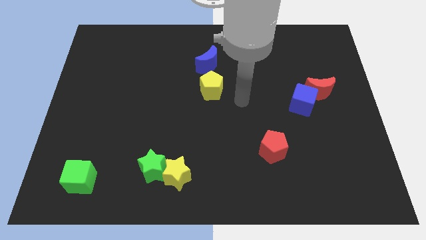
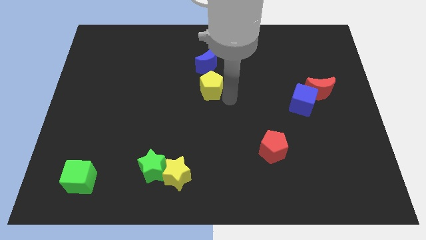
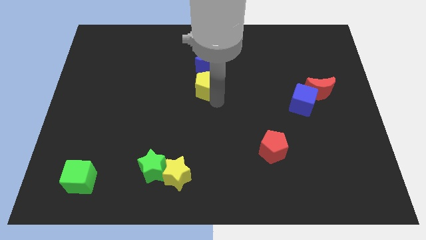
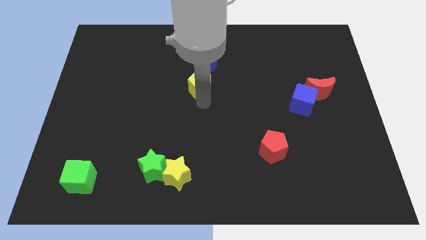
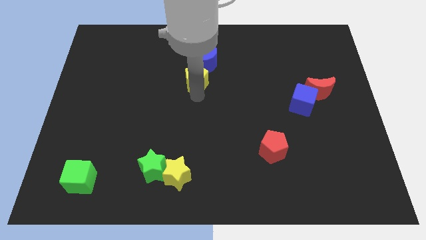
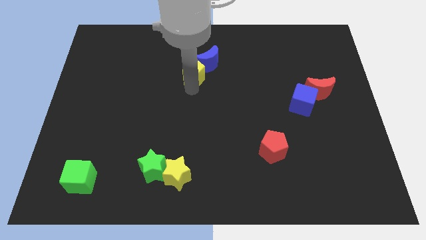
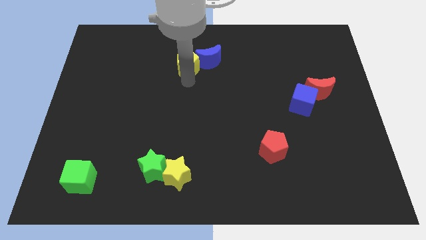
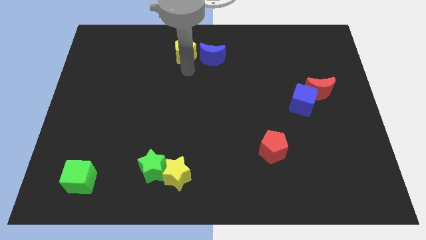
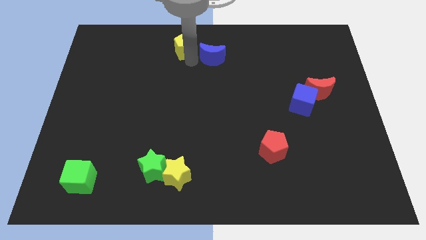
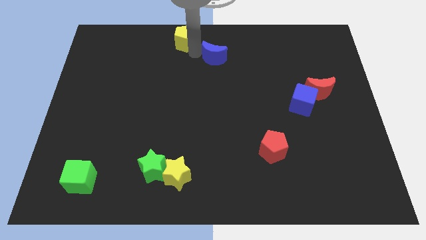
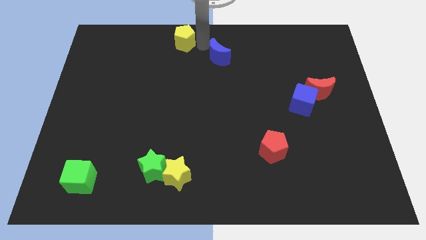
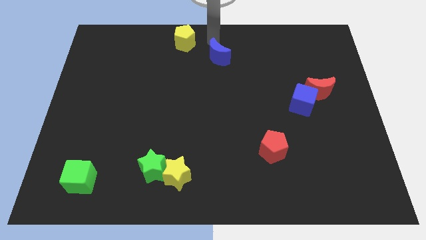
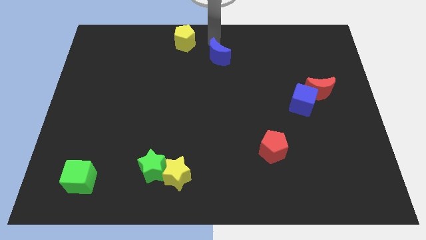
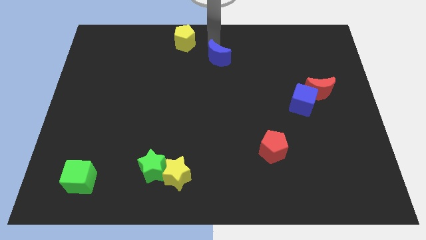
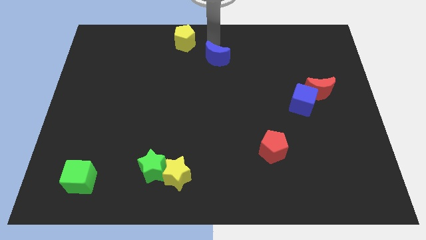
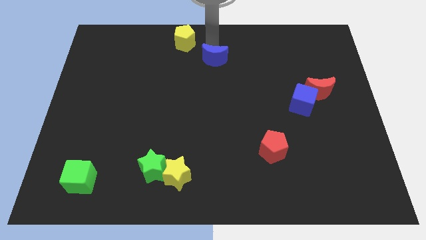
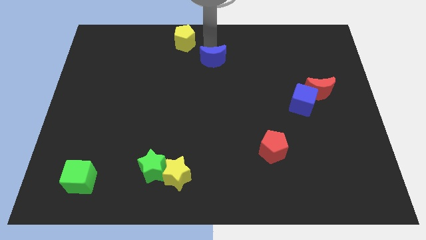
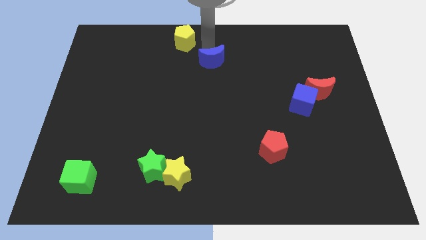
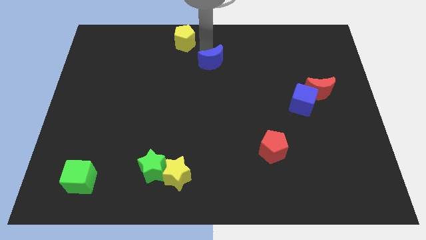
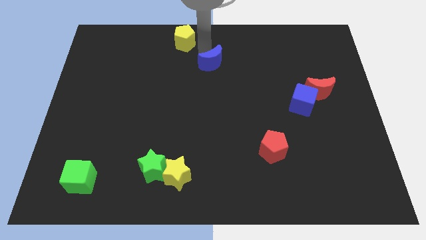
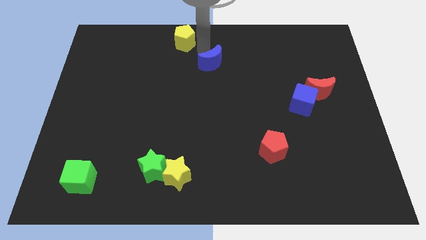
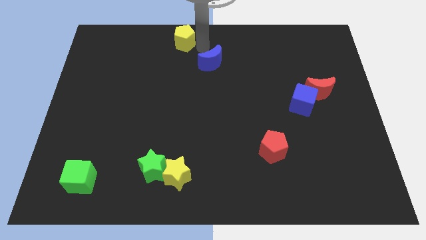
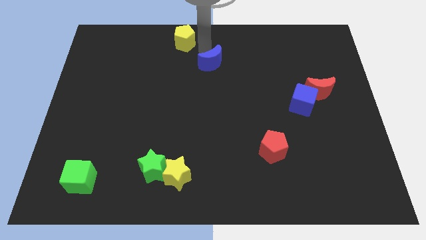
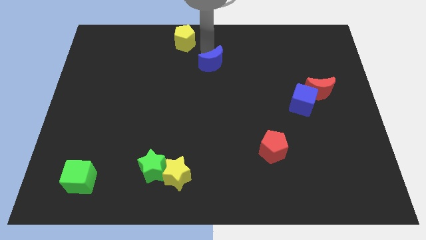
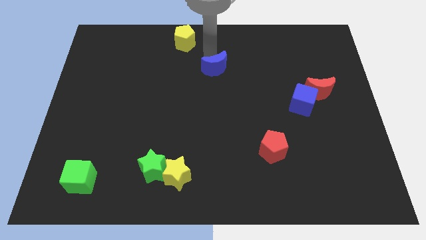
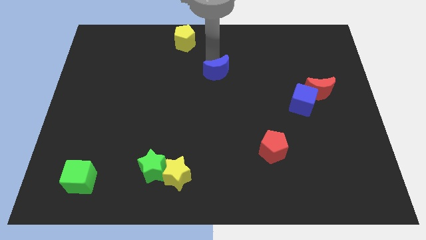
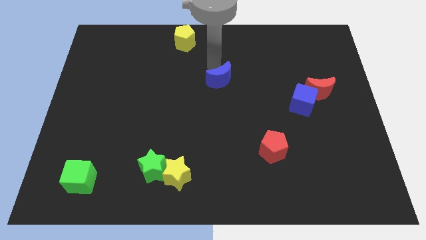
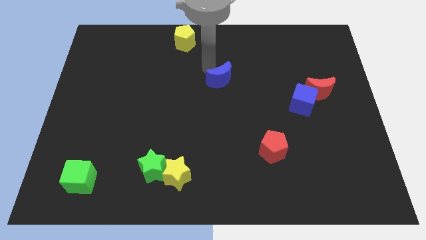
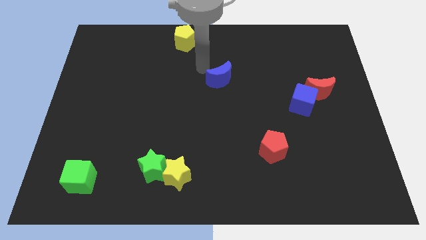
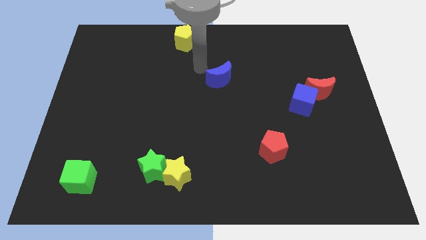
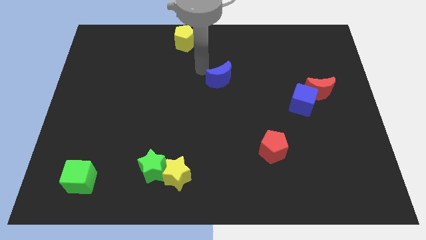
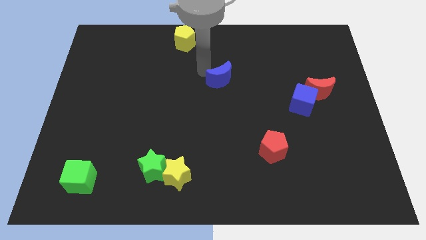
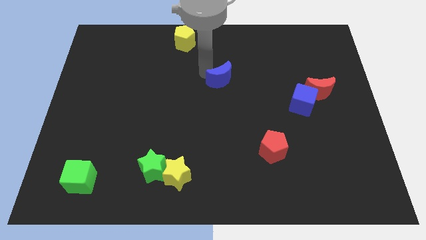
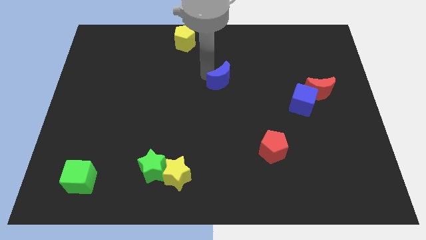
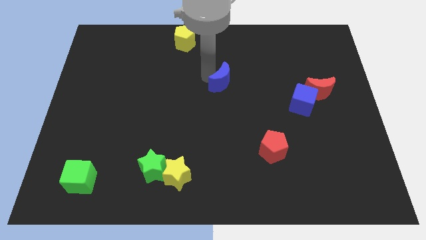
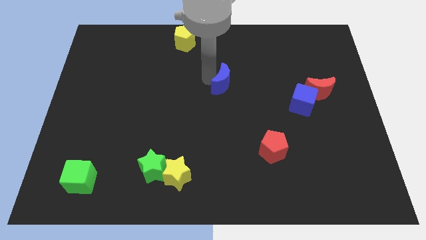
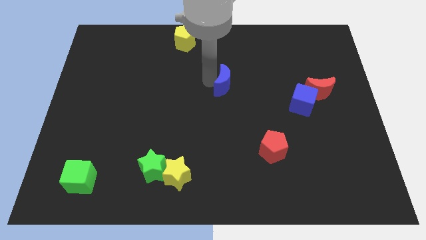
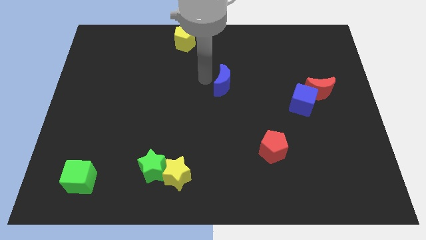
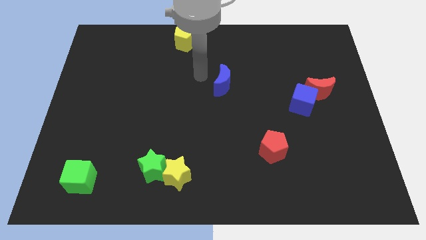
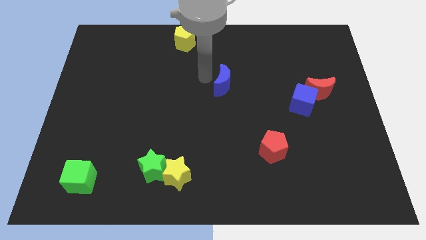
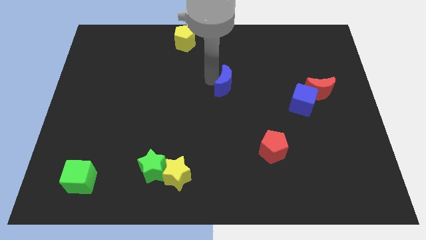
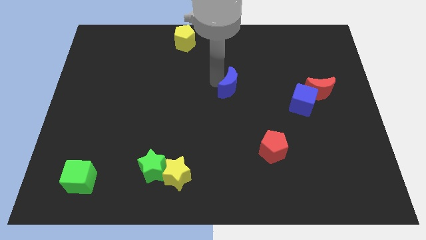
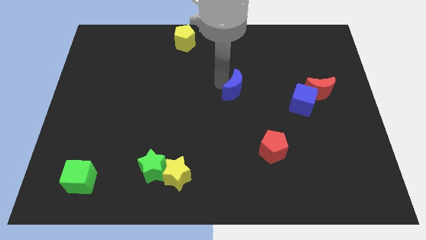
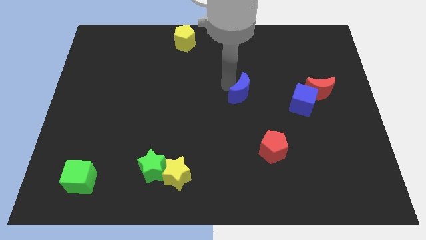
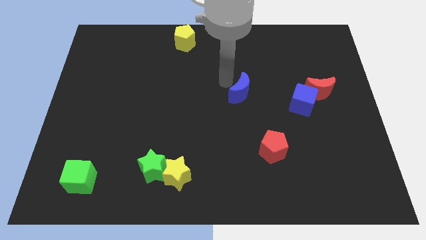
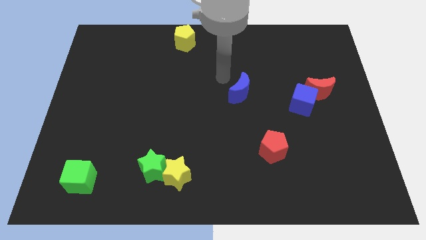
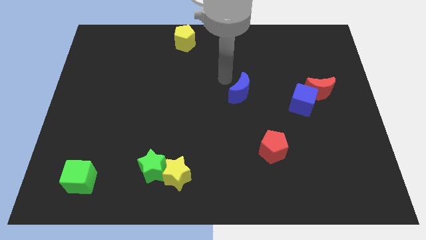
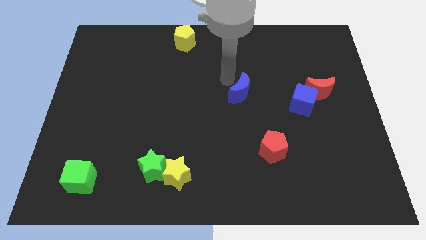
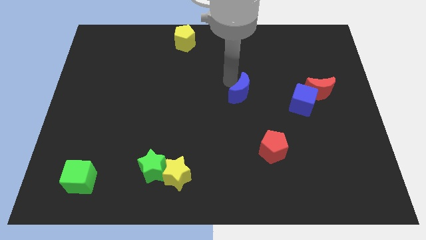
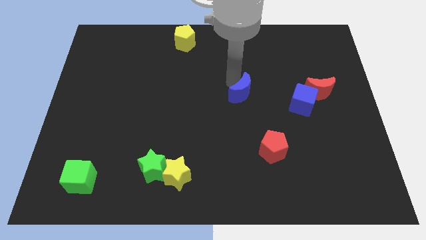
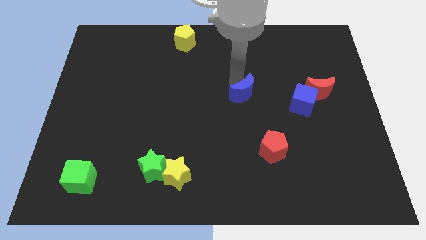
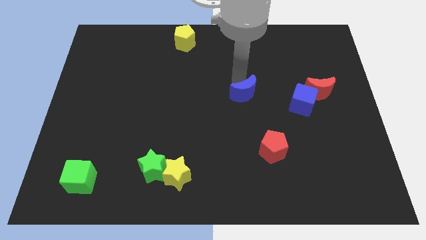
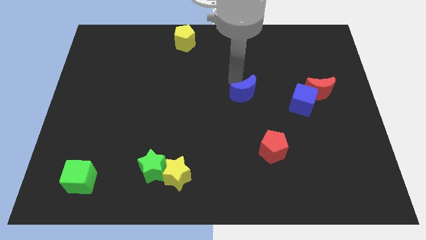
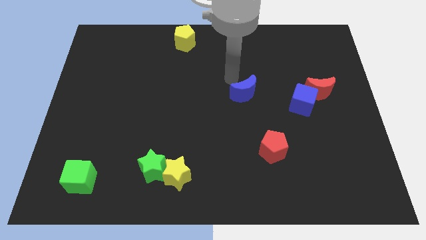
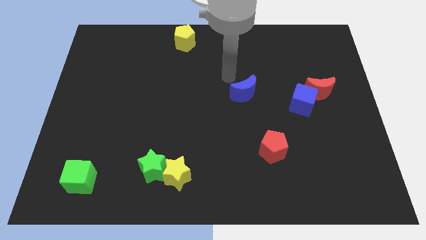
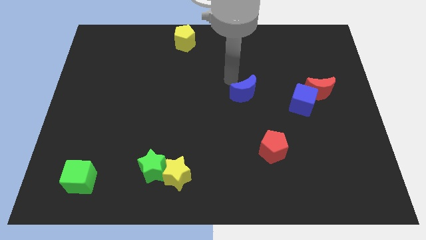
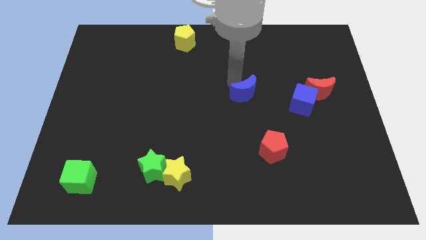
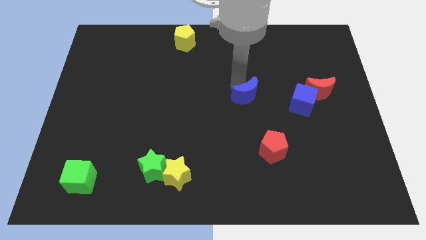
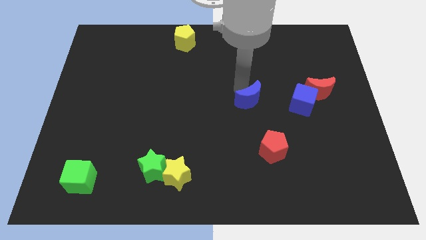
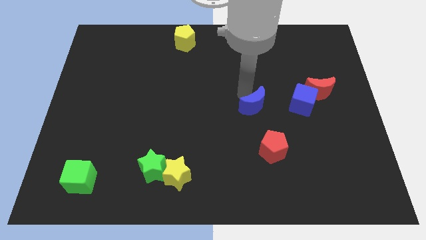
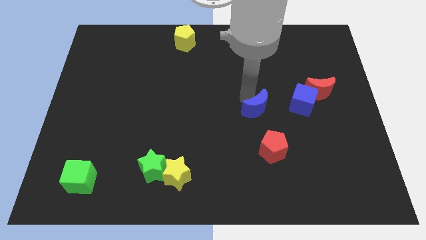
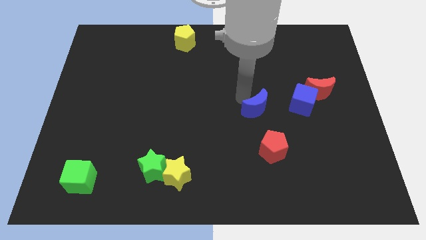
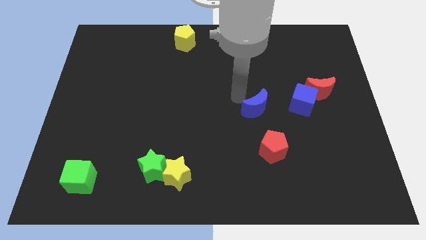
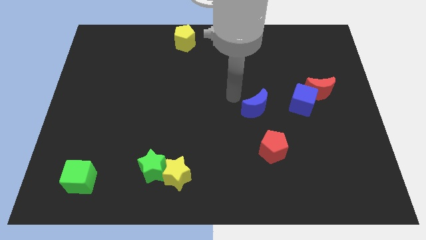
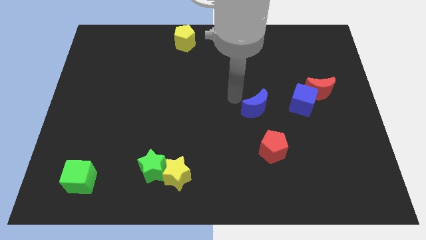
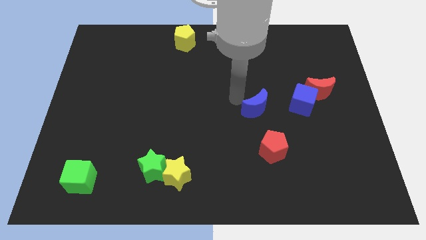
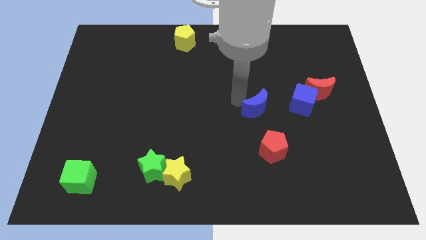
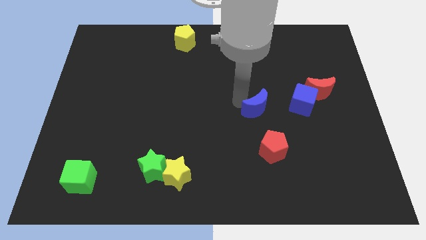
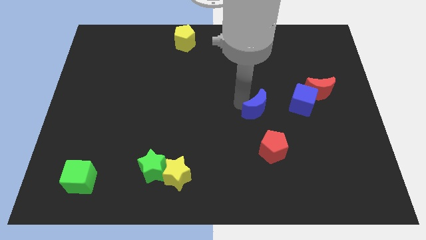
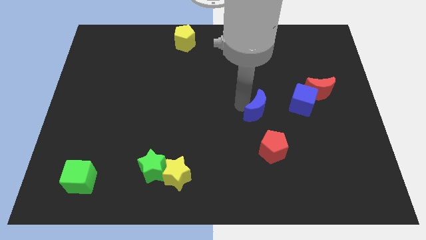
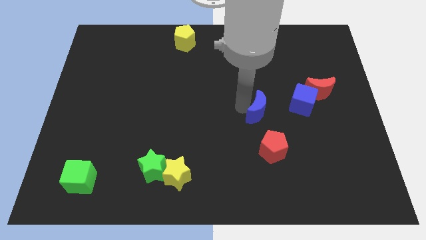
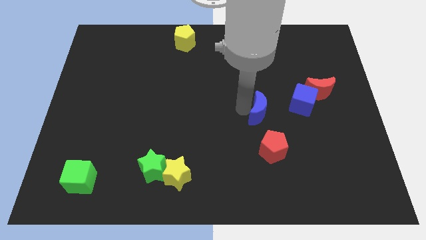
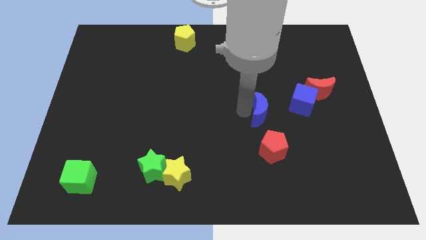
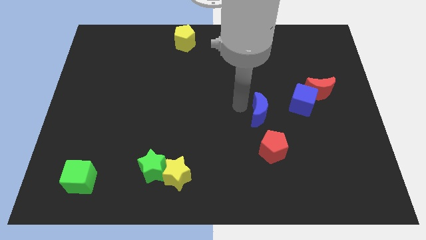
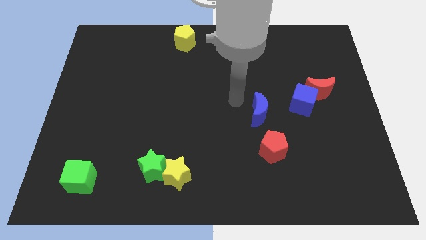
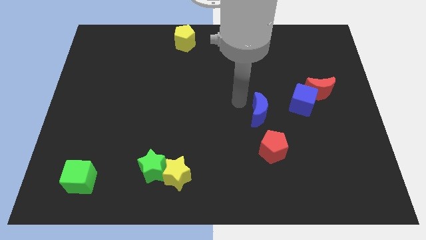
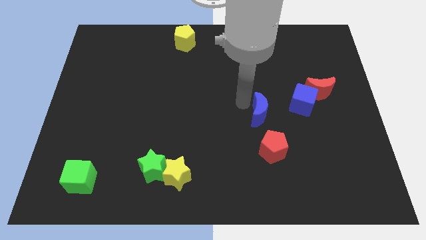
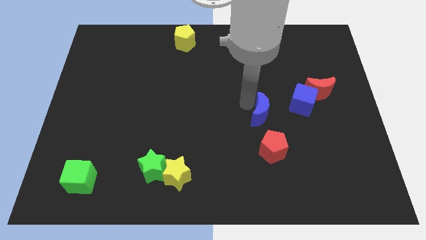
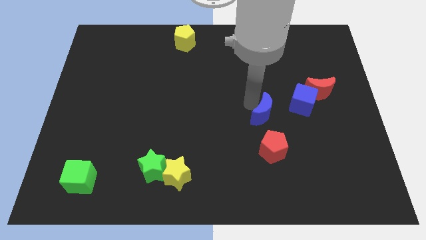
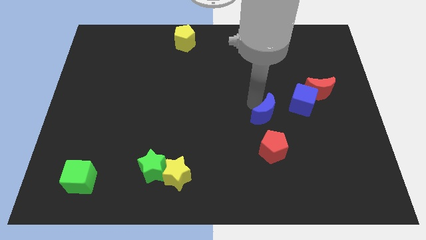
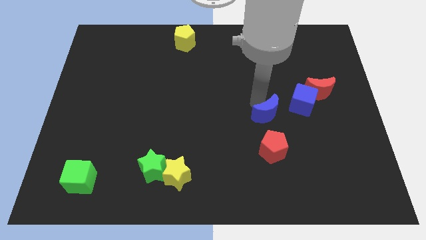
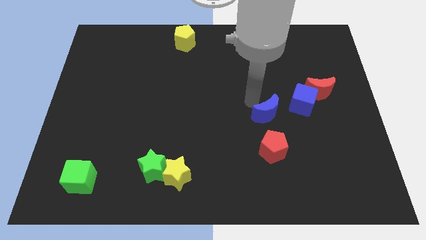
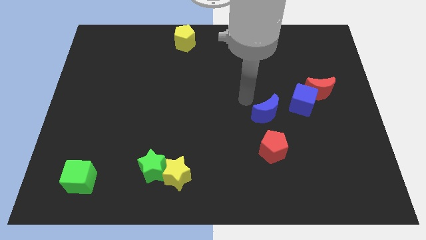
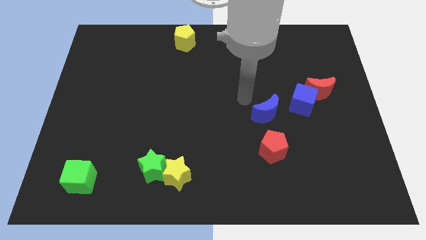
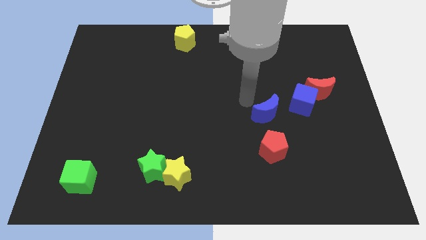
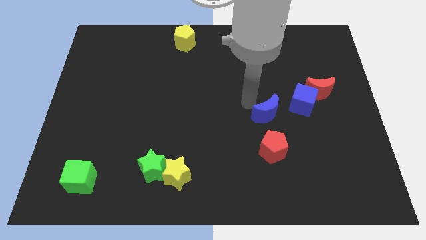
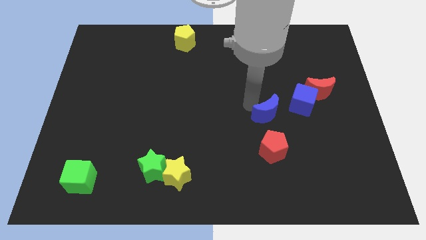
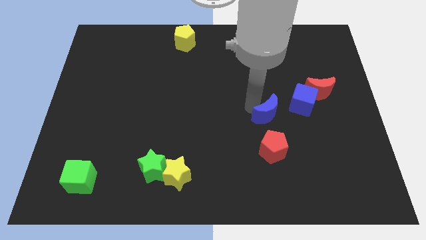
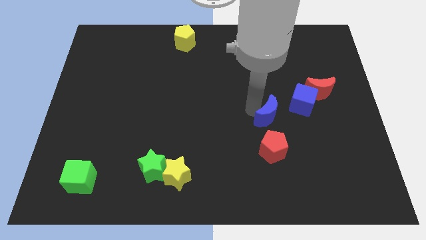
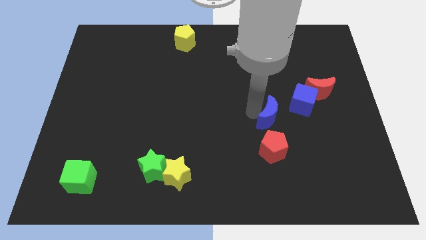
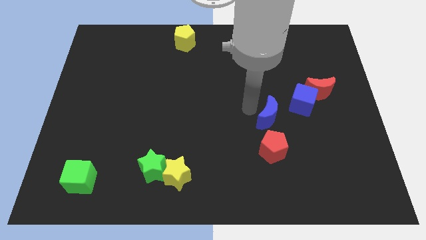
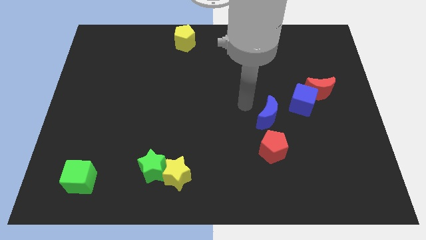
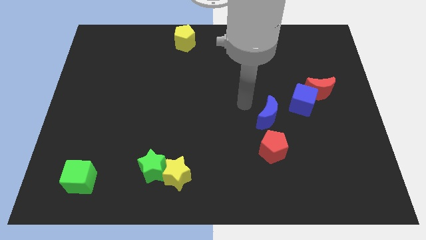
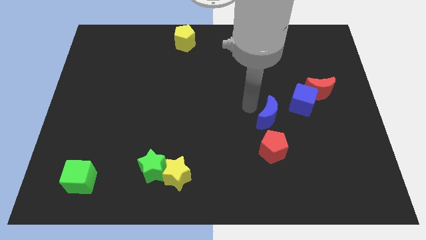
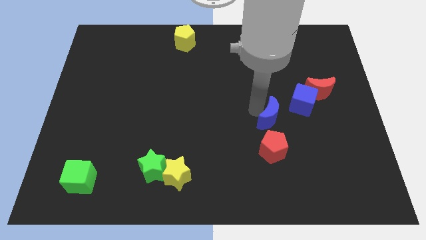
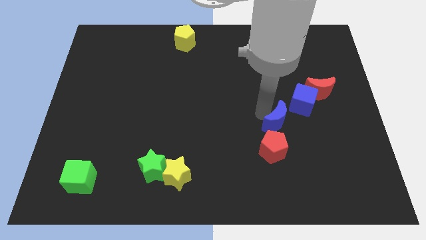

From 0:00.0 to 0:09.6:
push the blue moon to the top right of the red pentagon
